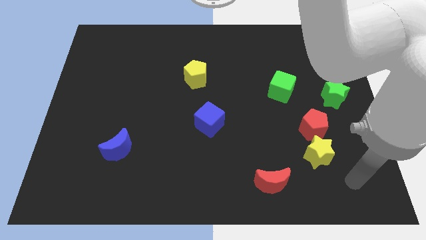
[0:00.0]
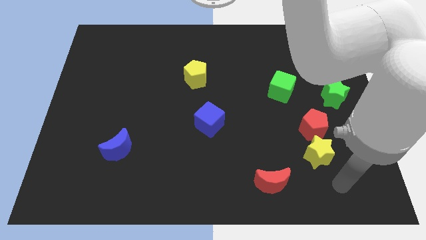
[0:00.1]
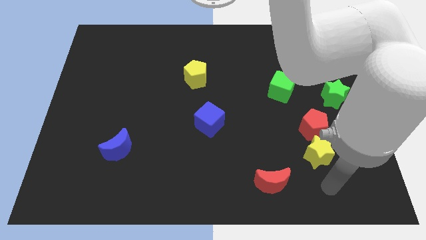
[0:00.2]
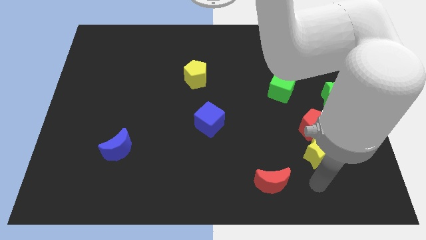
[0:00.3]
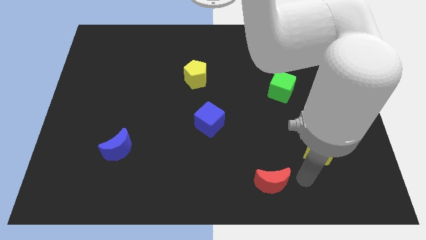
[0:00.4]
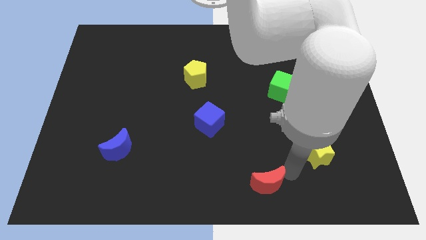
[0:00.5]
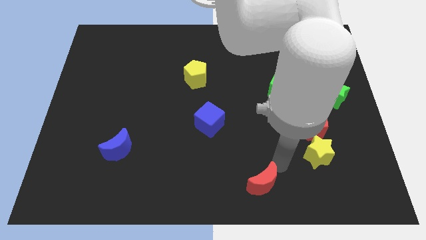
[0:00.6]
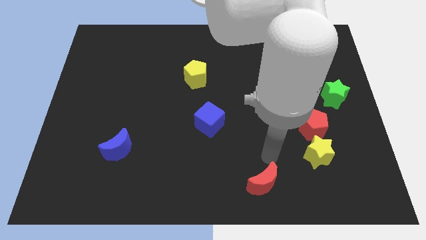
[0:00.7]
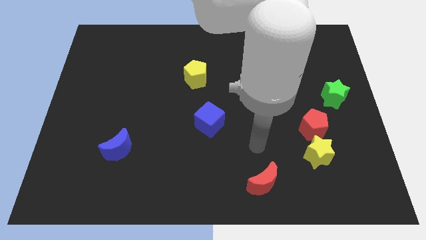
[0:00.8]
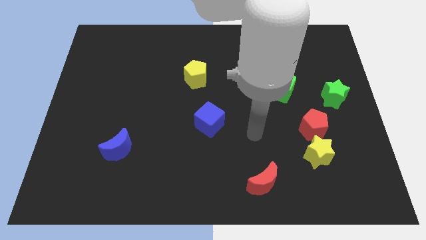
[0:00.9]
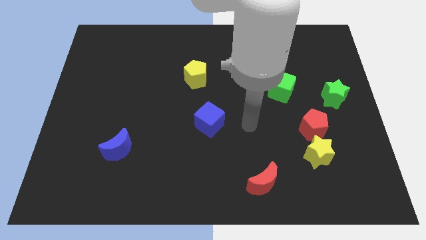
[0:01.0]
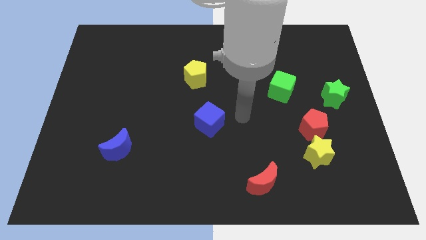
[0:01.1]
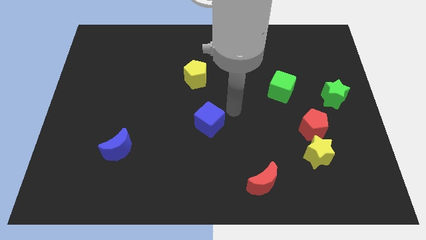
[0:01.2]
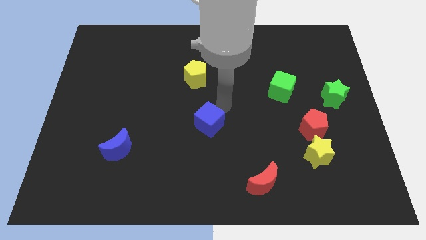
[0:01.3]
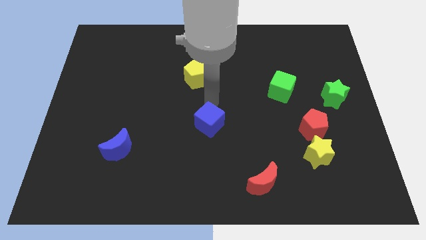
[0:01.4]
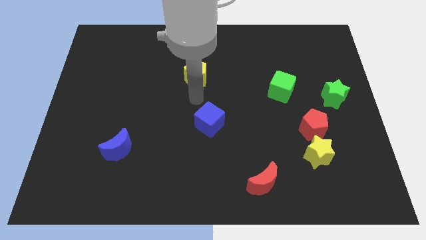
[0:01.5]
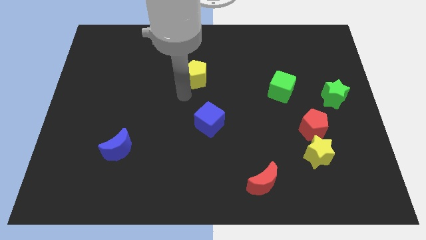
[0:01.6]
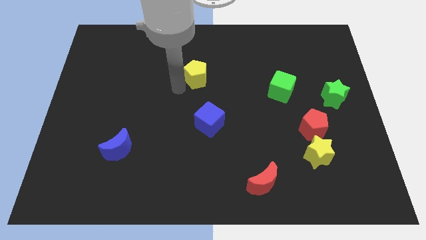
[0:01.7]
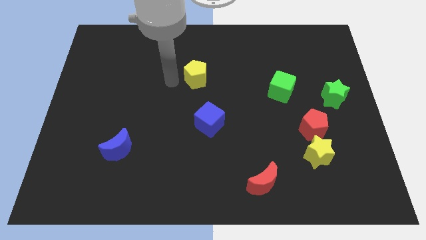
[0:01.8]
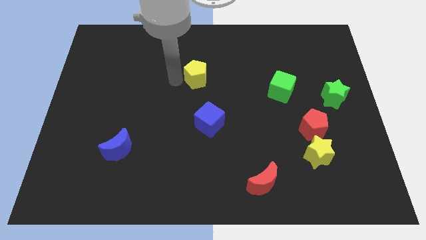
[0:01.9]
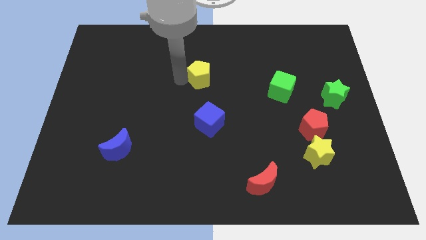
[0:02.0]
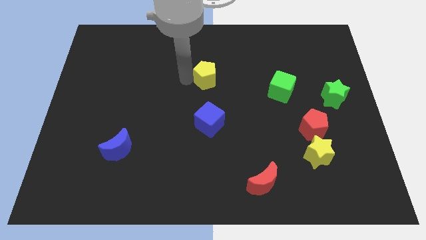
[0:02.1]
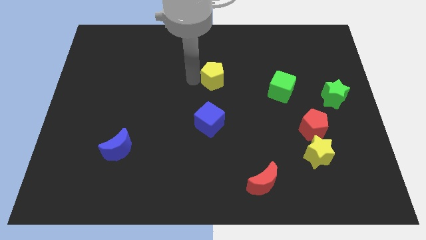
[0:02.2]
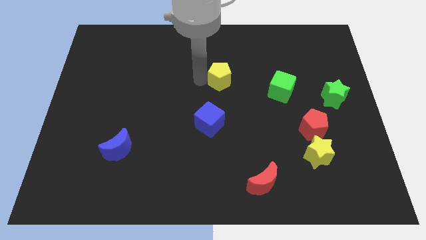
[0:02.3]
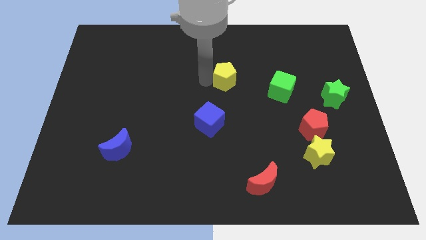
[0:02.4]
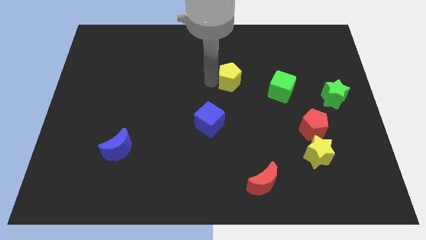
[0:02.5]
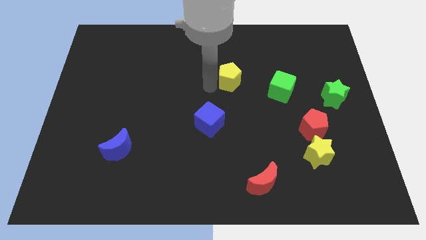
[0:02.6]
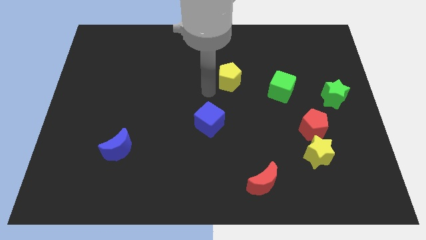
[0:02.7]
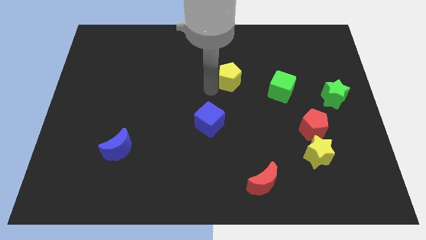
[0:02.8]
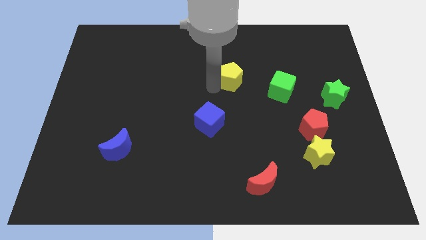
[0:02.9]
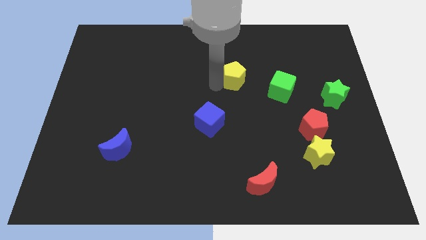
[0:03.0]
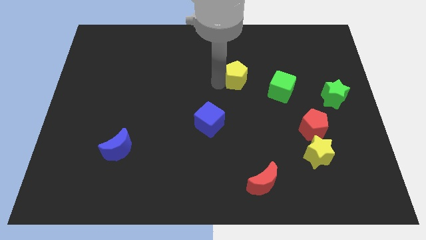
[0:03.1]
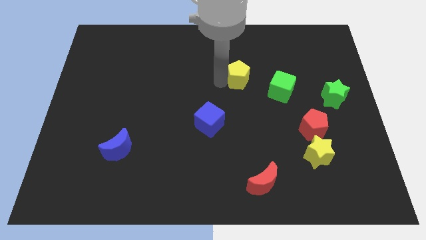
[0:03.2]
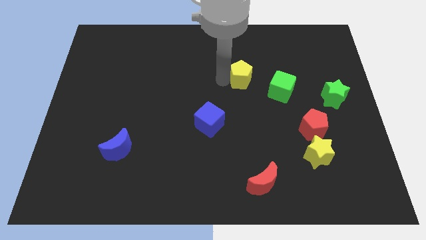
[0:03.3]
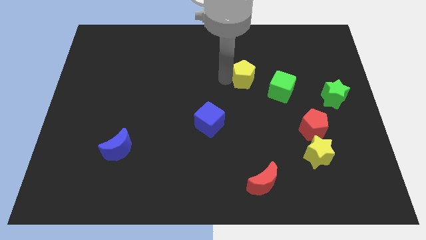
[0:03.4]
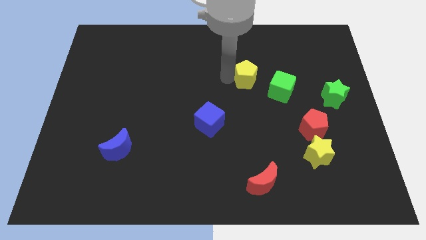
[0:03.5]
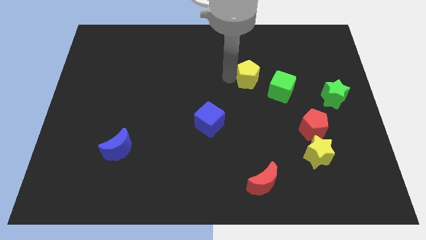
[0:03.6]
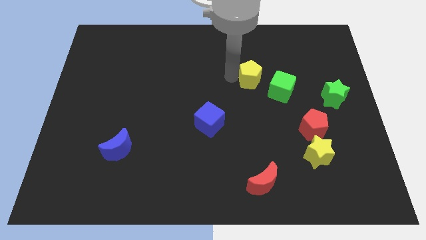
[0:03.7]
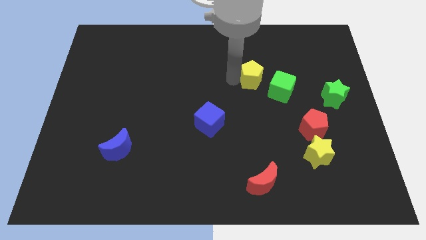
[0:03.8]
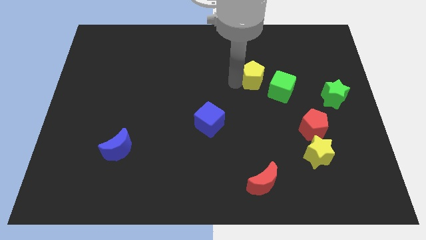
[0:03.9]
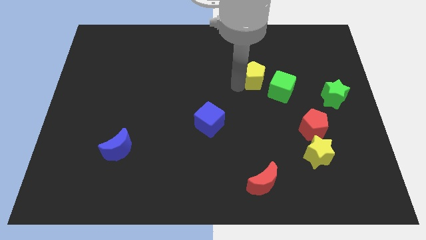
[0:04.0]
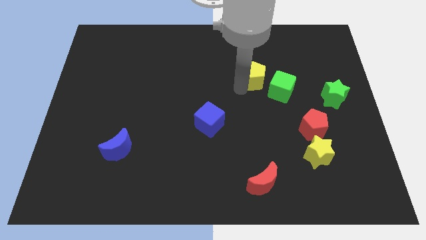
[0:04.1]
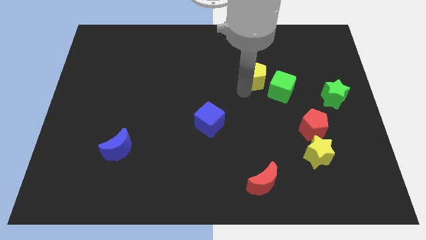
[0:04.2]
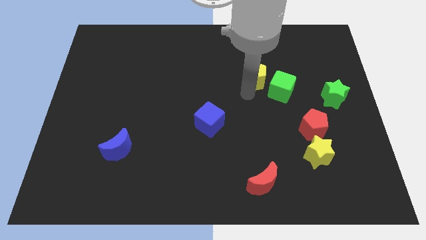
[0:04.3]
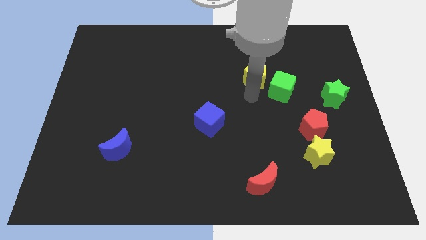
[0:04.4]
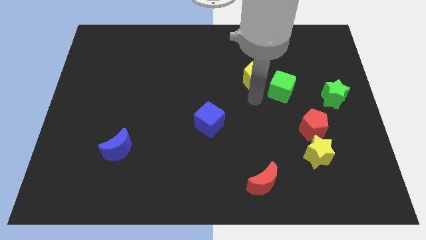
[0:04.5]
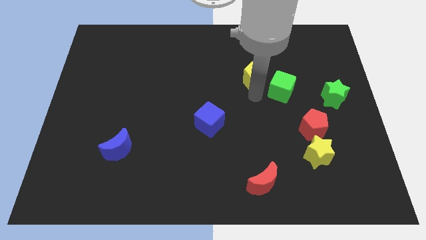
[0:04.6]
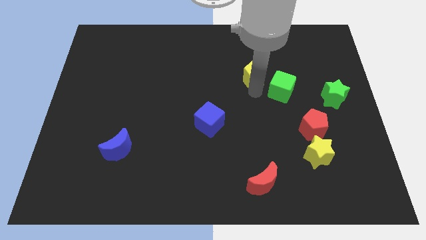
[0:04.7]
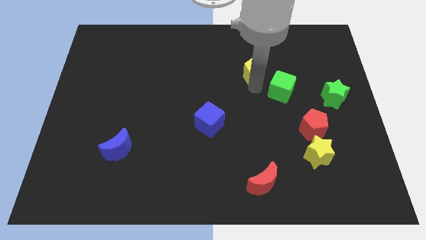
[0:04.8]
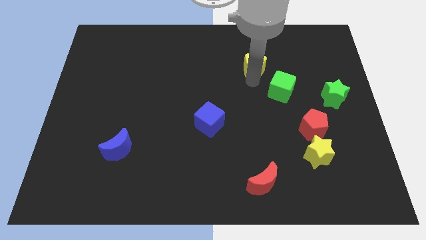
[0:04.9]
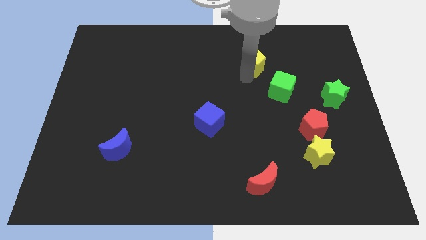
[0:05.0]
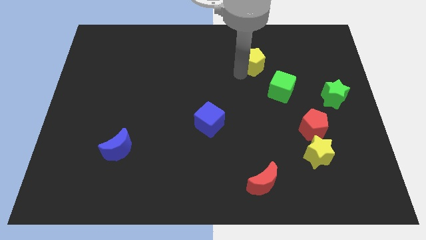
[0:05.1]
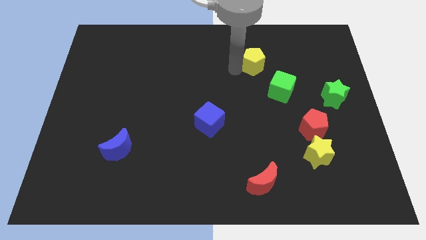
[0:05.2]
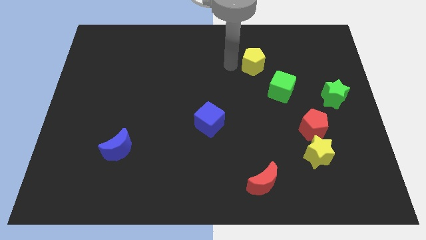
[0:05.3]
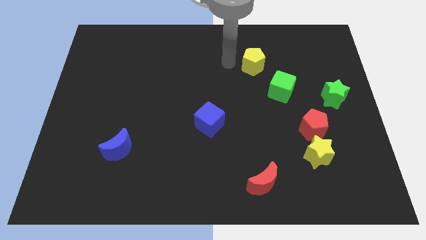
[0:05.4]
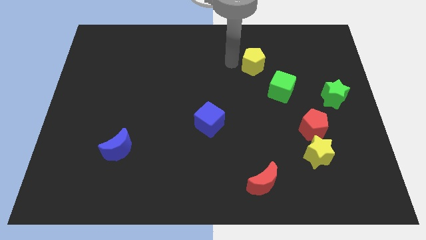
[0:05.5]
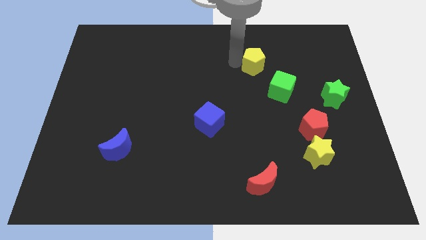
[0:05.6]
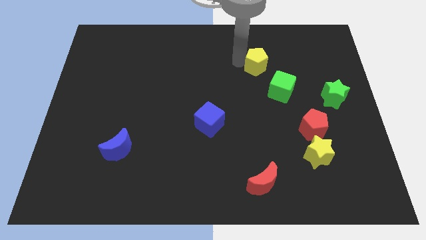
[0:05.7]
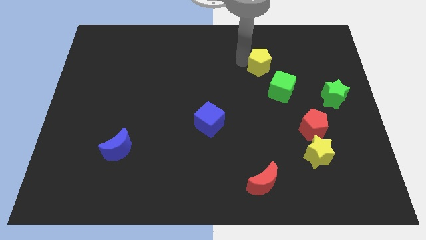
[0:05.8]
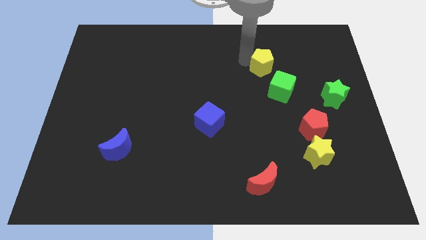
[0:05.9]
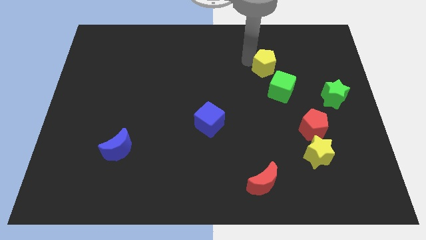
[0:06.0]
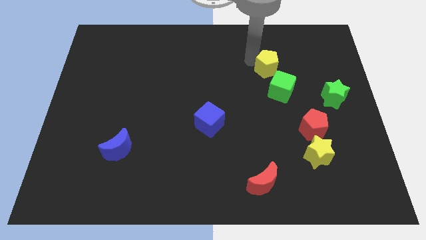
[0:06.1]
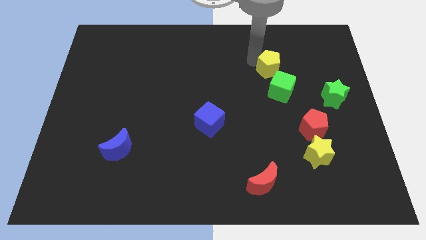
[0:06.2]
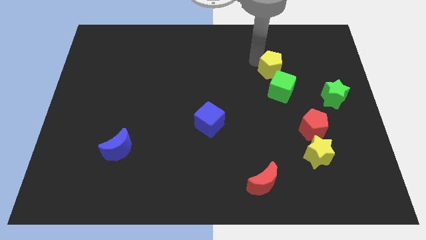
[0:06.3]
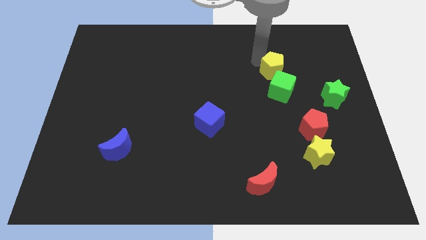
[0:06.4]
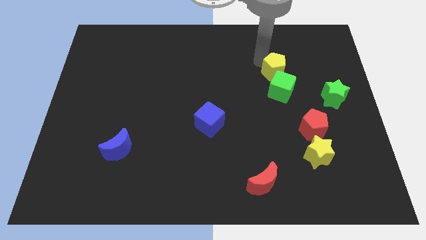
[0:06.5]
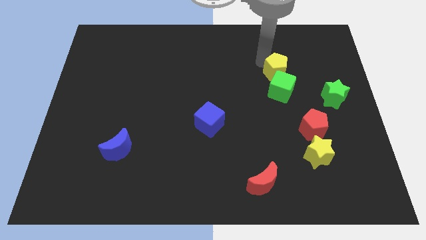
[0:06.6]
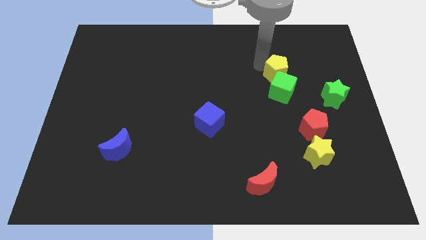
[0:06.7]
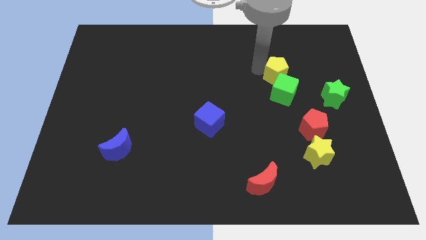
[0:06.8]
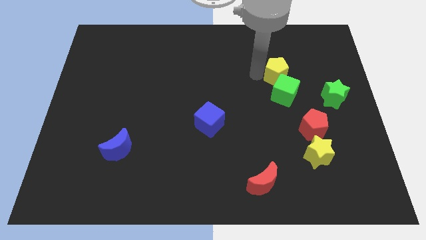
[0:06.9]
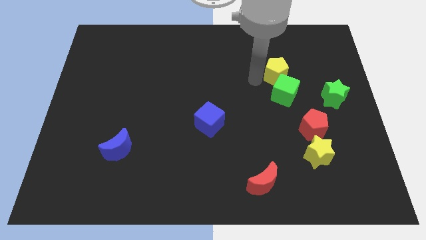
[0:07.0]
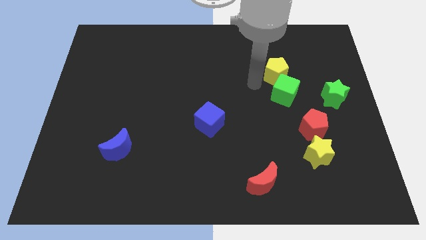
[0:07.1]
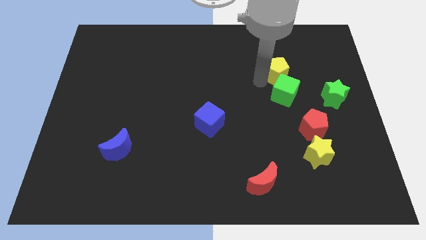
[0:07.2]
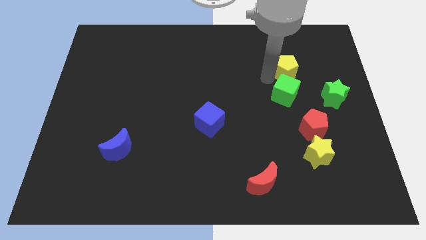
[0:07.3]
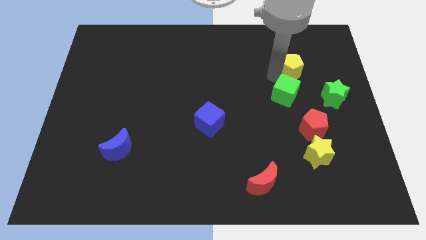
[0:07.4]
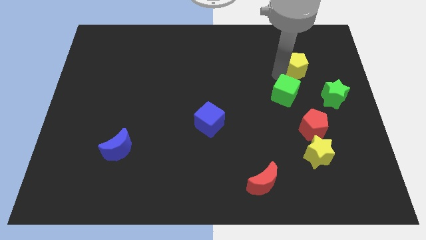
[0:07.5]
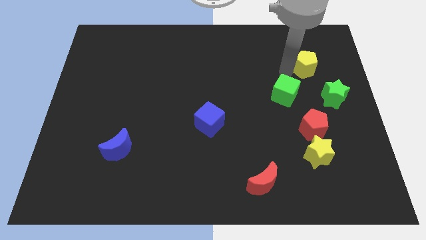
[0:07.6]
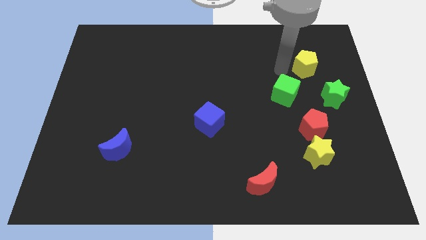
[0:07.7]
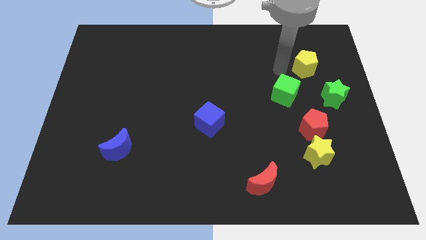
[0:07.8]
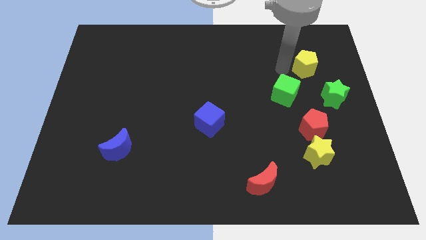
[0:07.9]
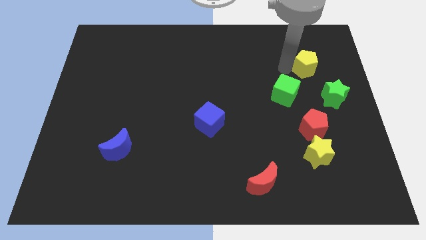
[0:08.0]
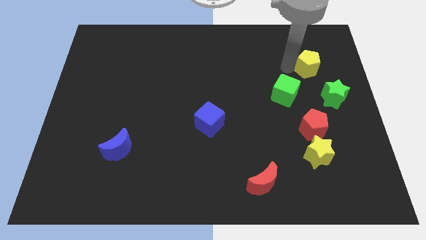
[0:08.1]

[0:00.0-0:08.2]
move the yellow pentagon to the top of the green star
